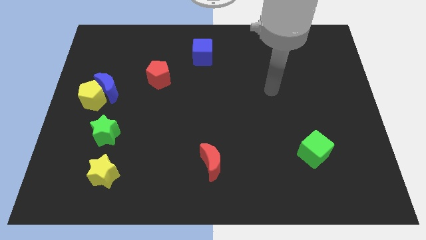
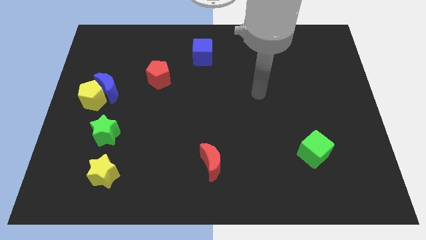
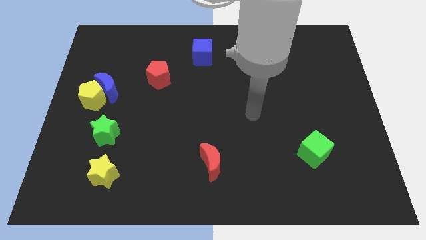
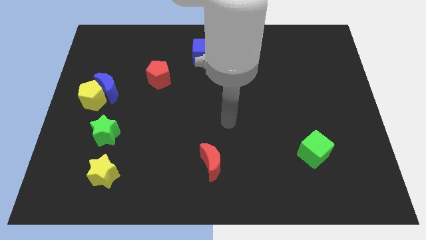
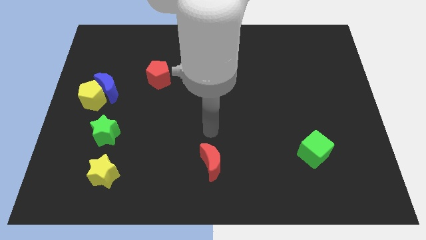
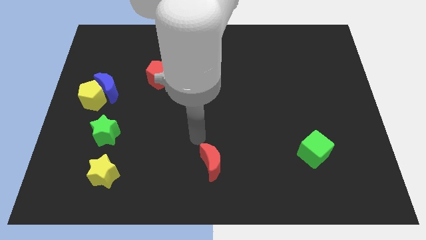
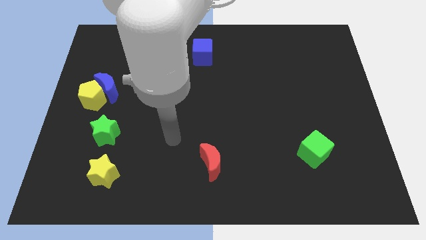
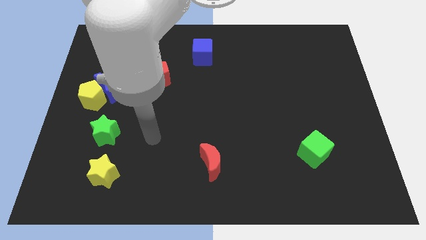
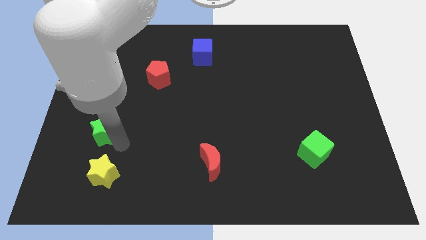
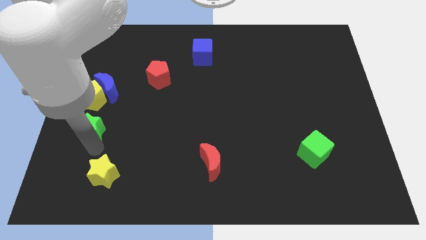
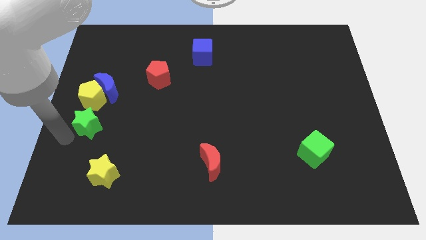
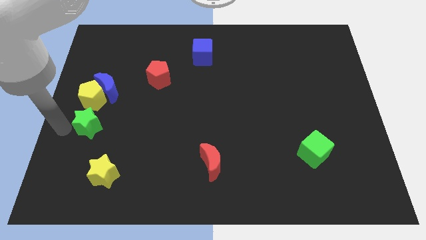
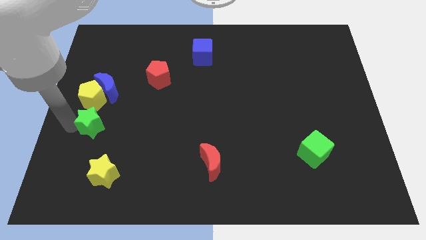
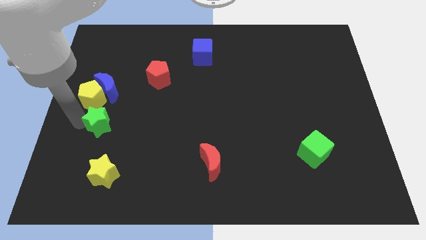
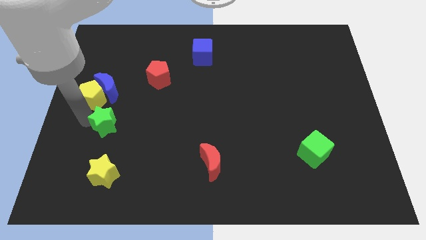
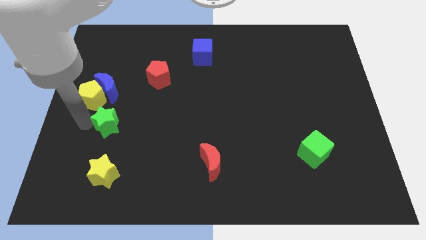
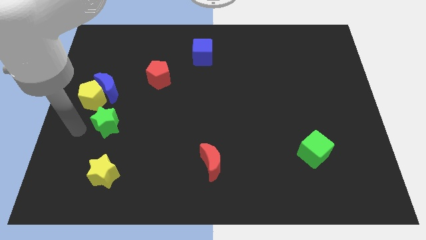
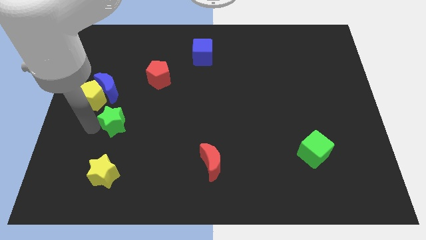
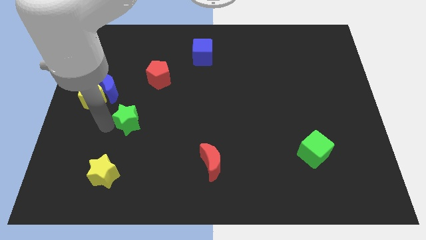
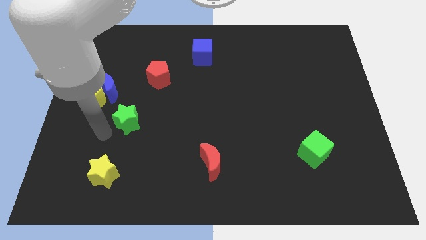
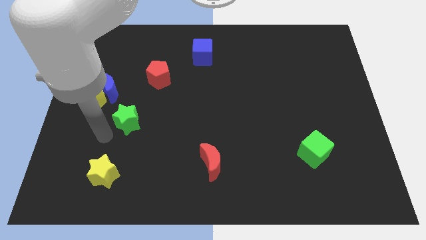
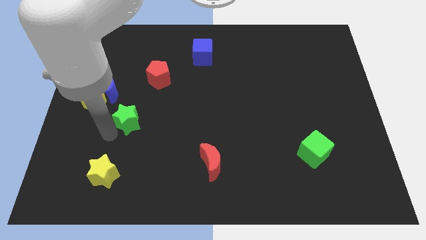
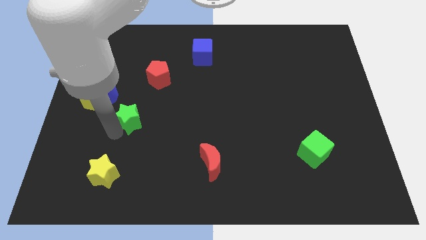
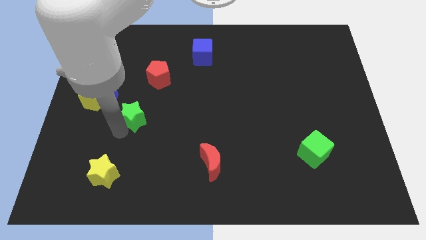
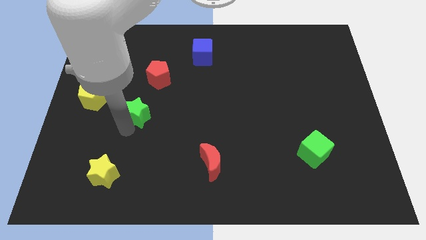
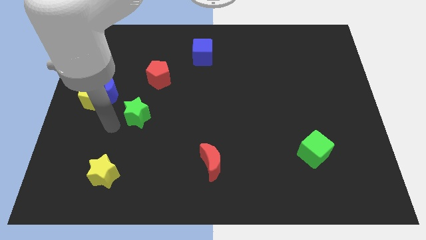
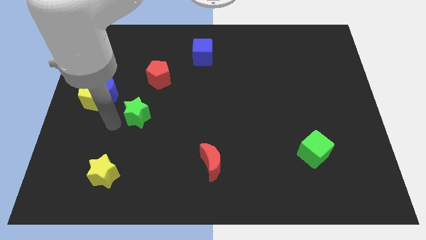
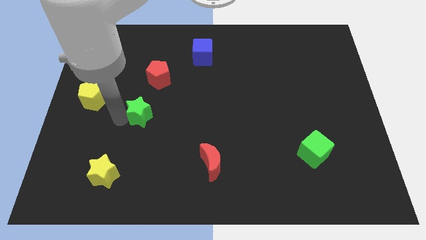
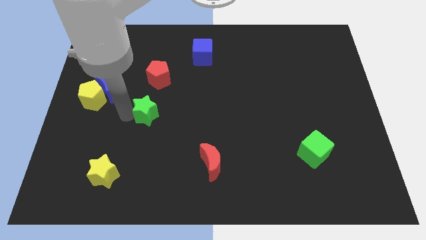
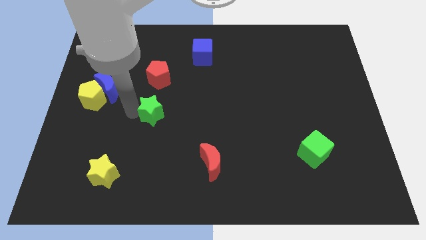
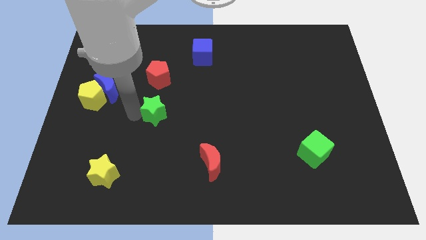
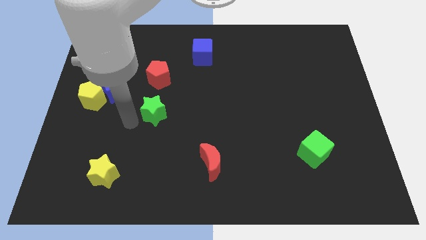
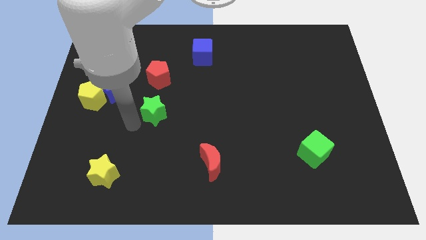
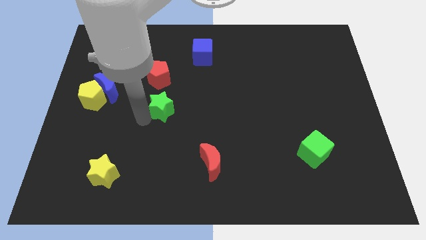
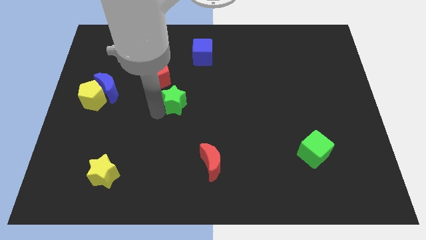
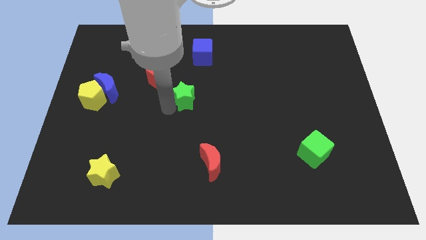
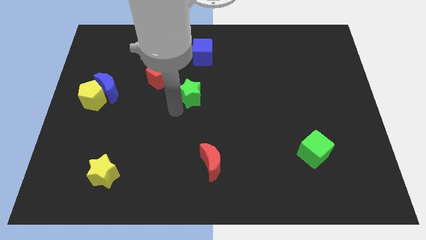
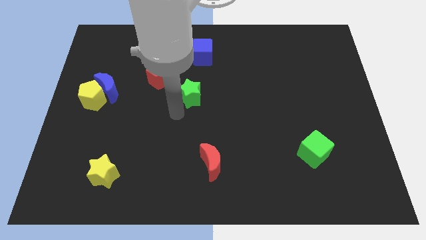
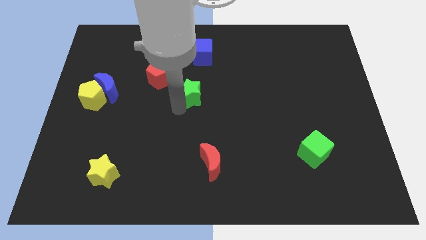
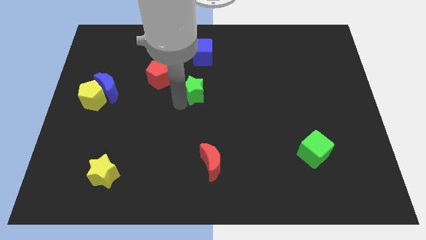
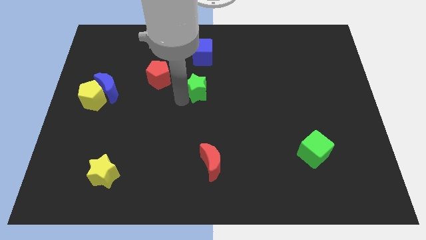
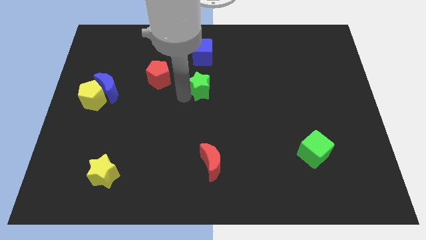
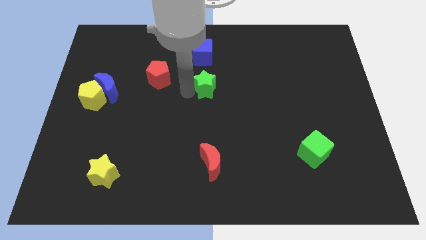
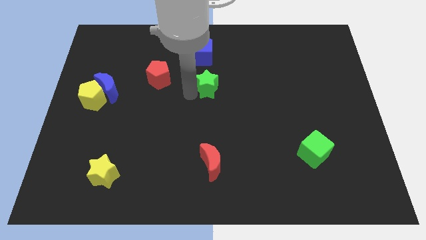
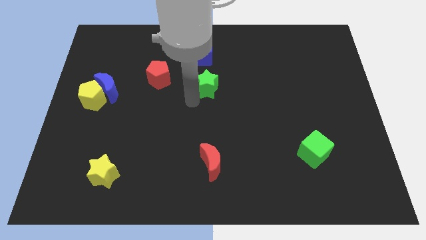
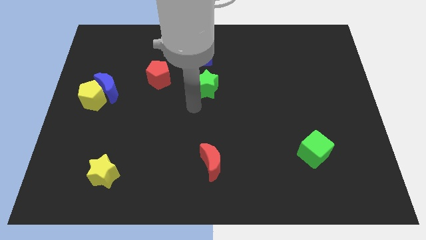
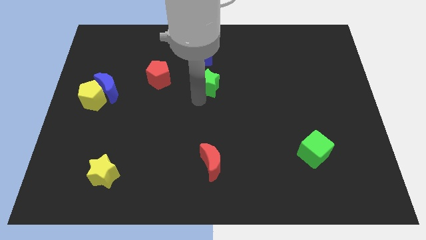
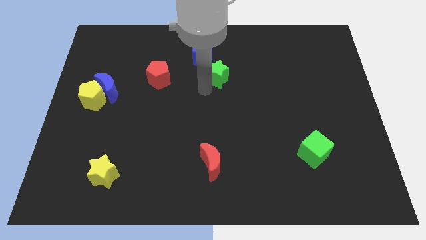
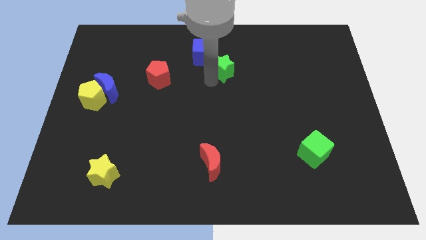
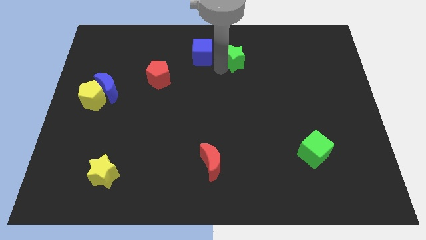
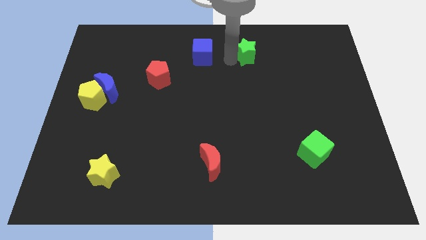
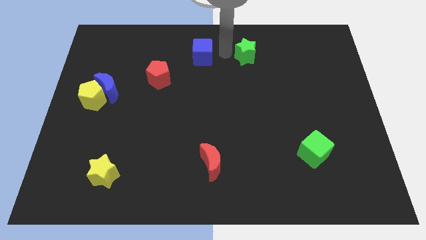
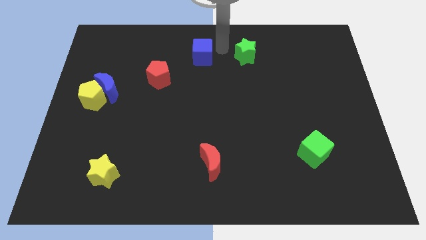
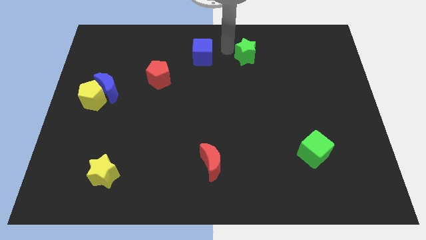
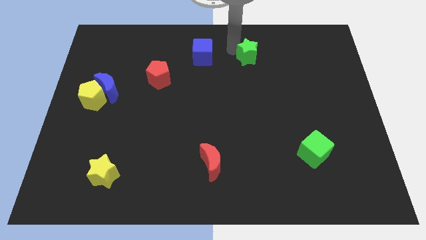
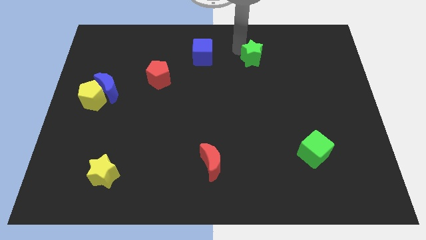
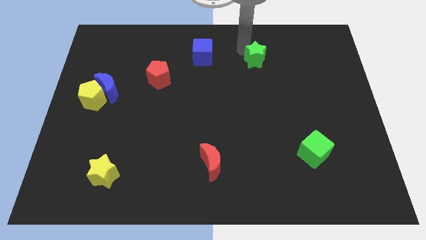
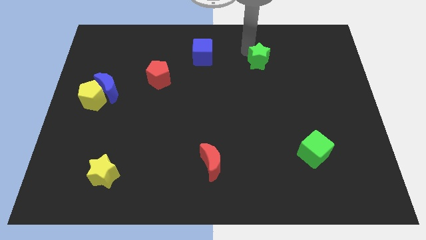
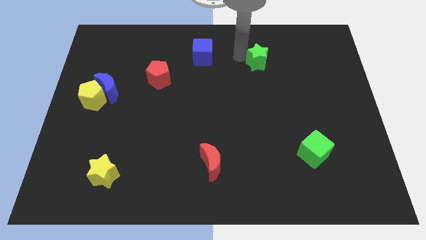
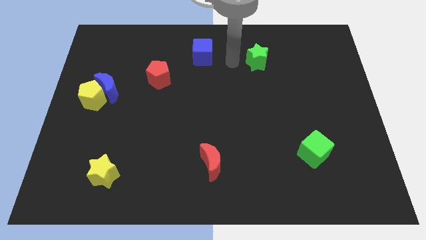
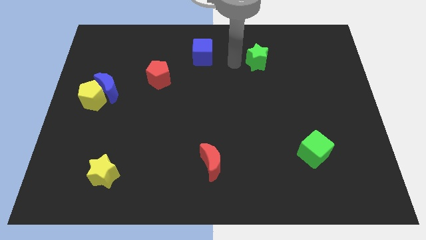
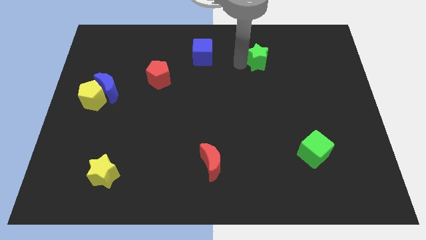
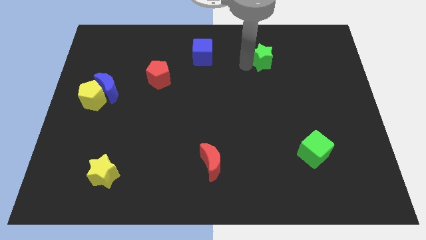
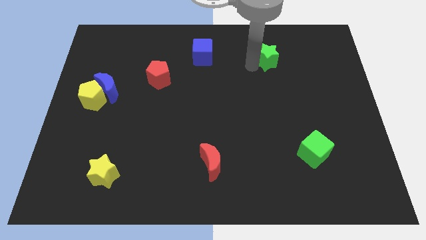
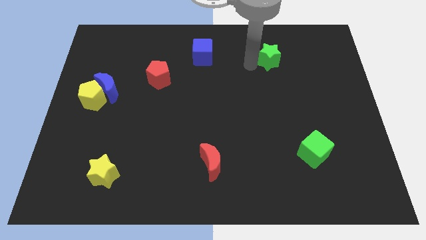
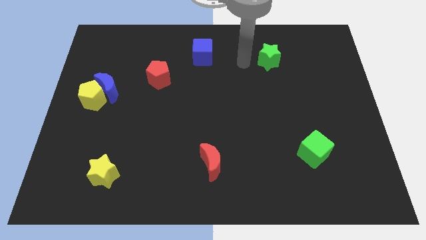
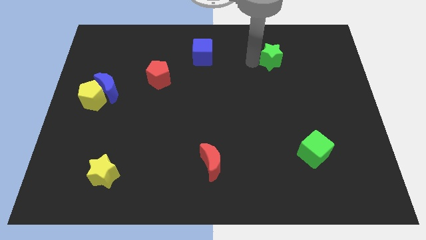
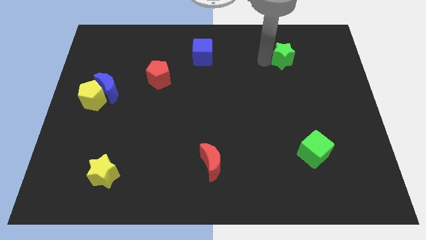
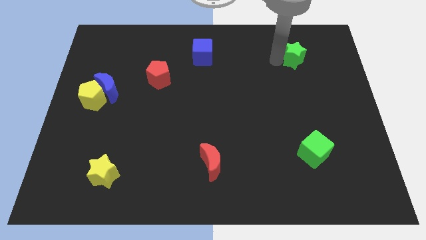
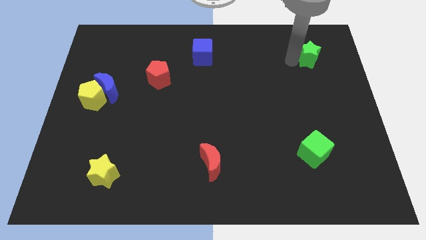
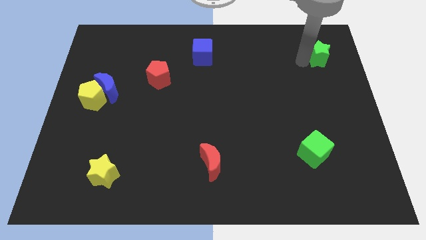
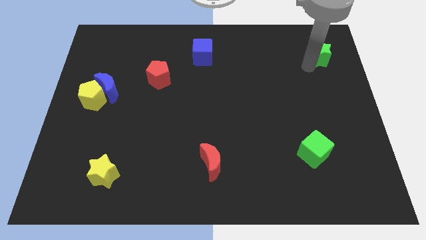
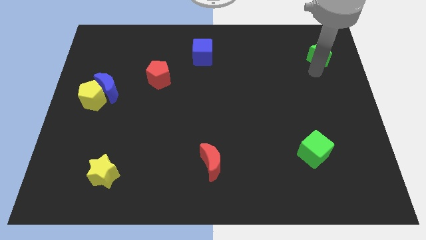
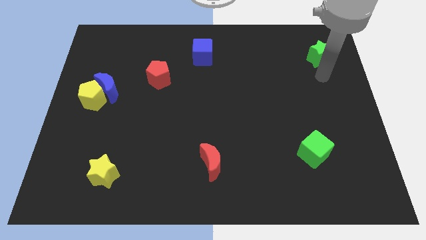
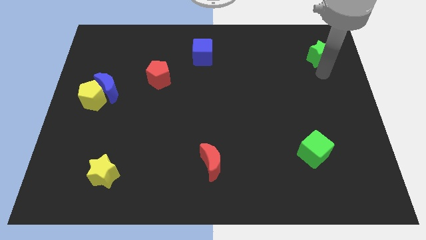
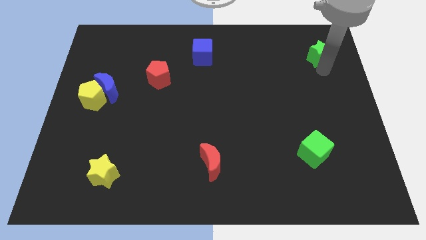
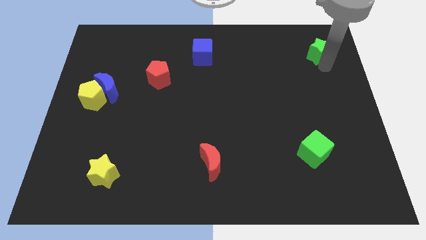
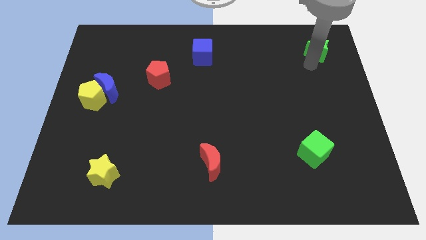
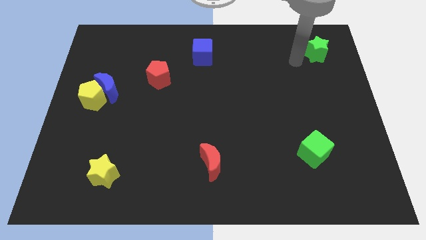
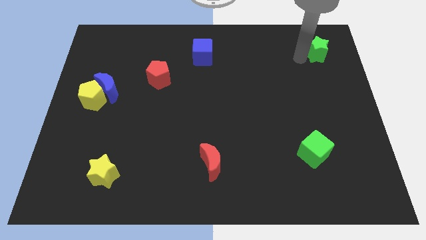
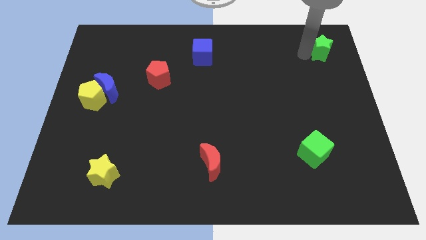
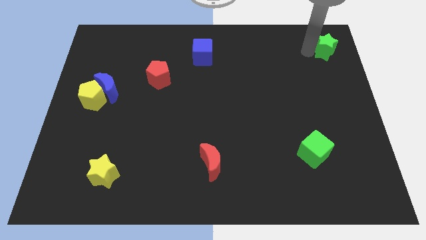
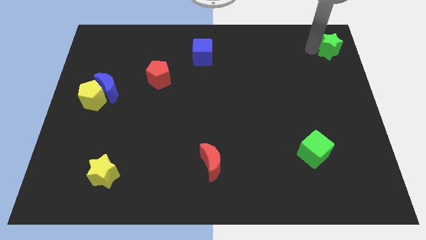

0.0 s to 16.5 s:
put the green star to the upper right corner
